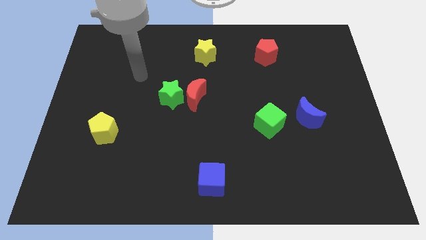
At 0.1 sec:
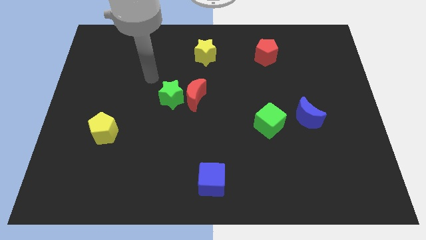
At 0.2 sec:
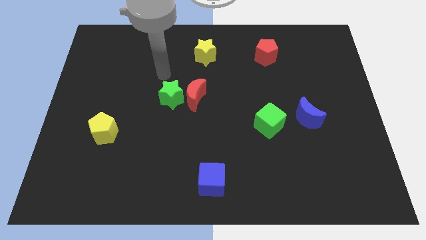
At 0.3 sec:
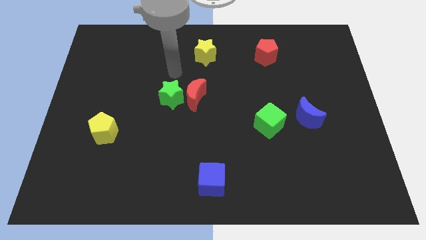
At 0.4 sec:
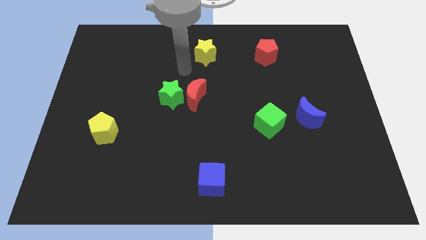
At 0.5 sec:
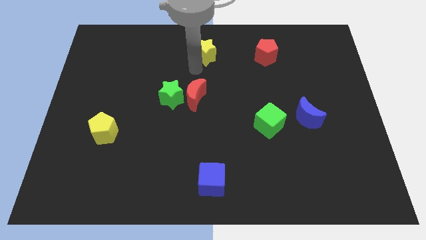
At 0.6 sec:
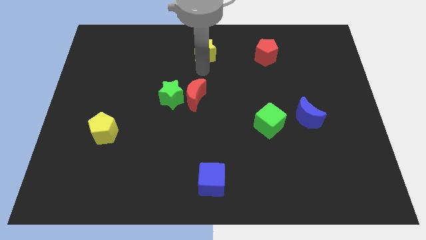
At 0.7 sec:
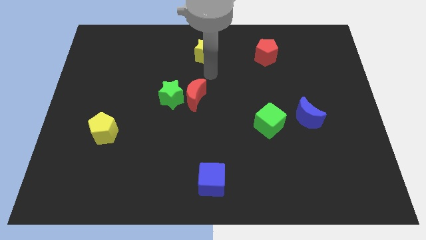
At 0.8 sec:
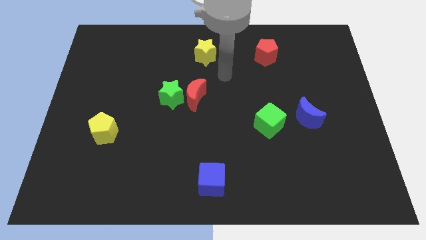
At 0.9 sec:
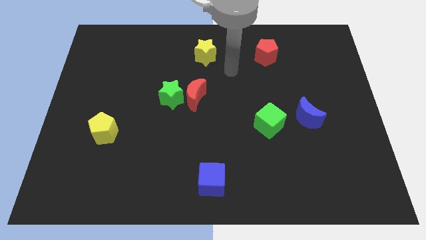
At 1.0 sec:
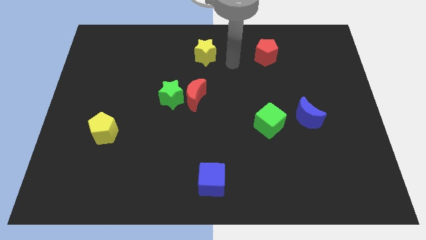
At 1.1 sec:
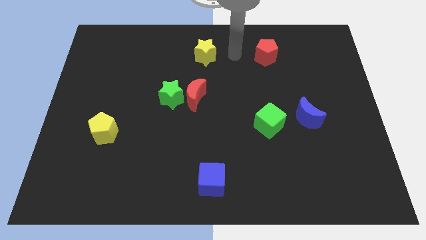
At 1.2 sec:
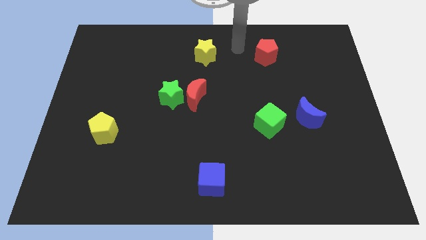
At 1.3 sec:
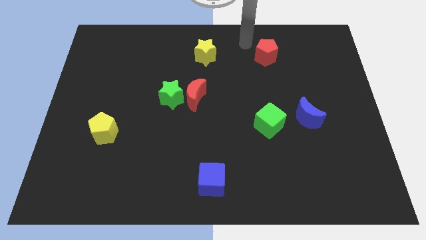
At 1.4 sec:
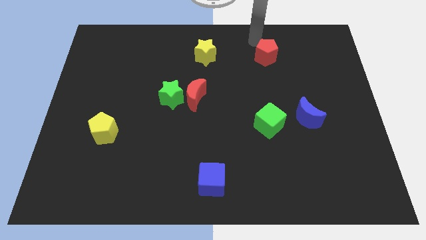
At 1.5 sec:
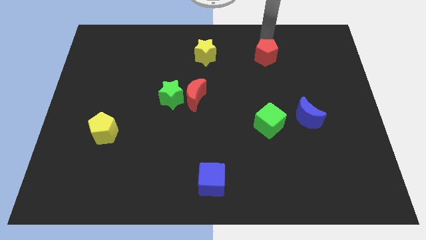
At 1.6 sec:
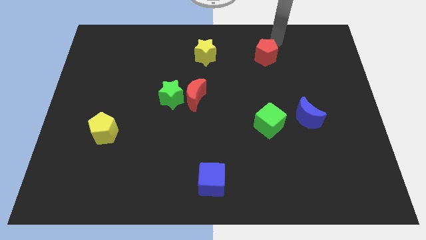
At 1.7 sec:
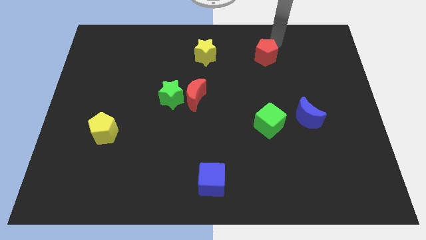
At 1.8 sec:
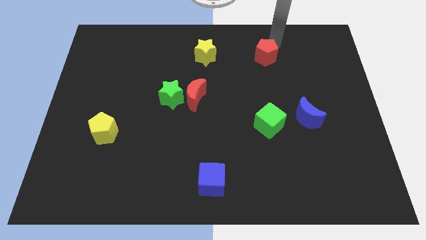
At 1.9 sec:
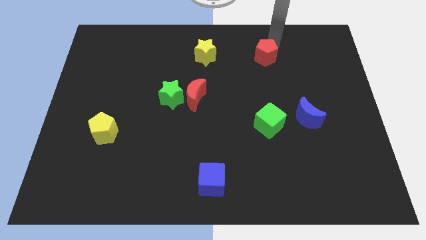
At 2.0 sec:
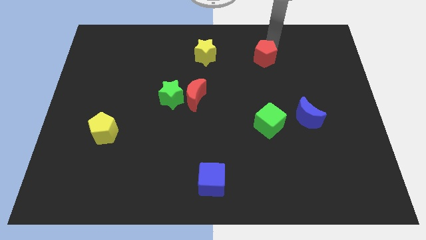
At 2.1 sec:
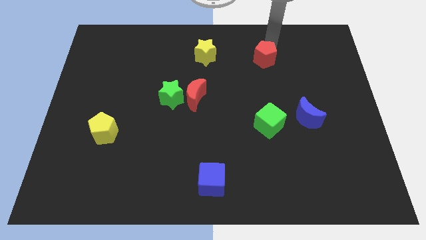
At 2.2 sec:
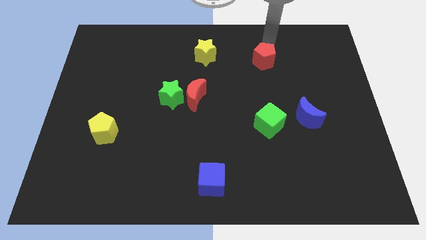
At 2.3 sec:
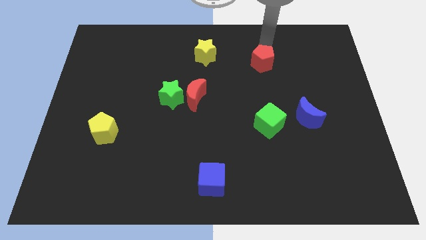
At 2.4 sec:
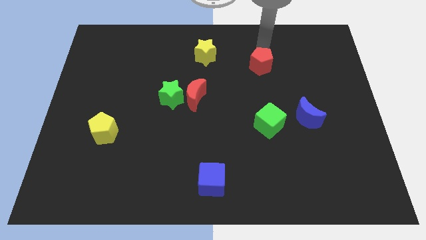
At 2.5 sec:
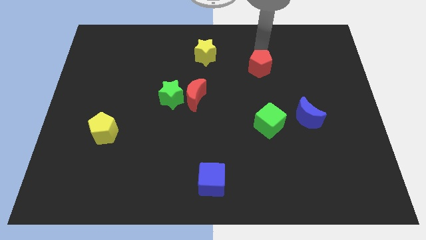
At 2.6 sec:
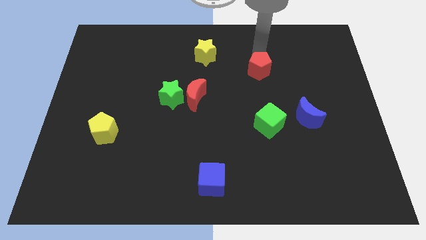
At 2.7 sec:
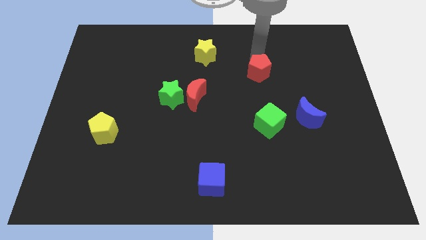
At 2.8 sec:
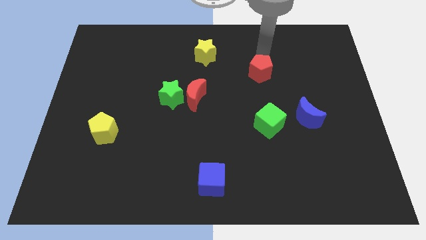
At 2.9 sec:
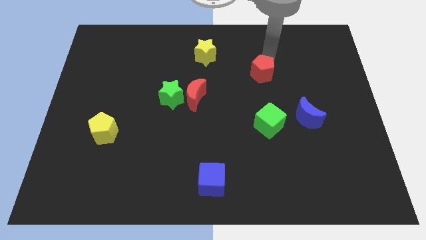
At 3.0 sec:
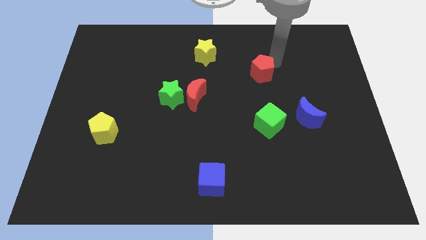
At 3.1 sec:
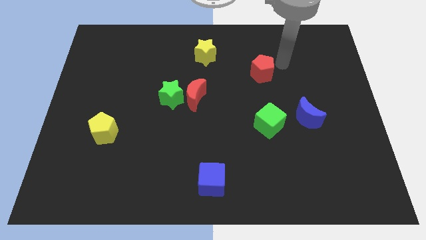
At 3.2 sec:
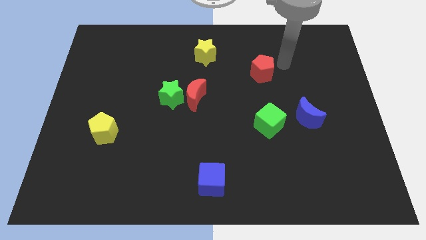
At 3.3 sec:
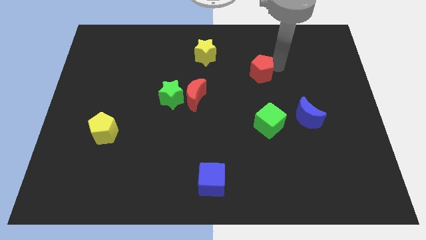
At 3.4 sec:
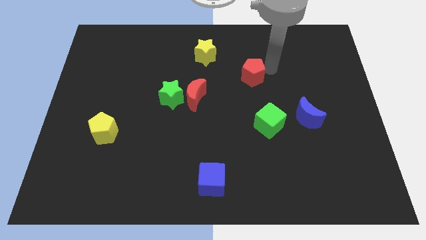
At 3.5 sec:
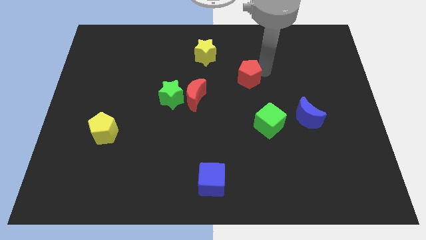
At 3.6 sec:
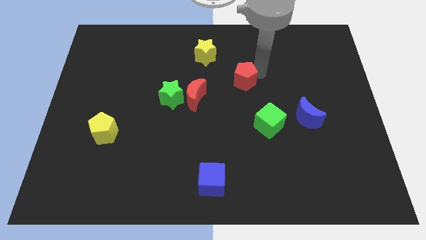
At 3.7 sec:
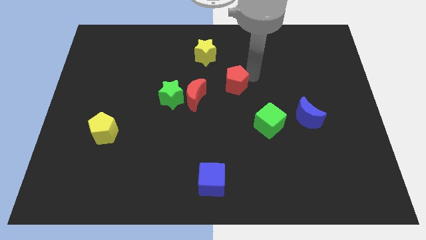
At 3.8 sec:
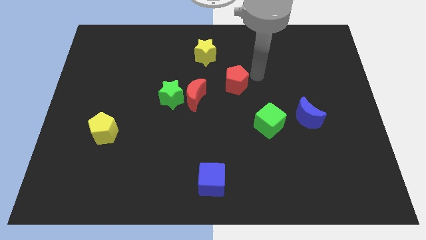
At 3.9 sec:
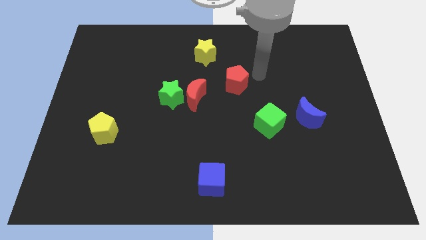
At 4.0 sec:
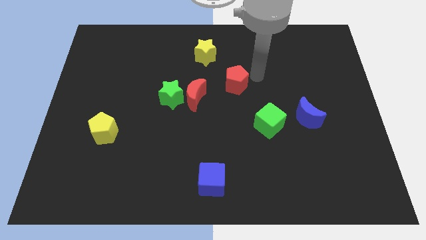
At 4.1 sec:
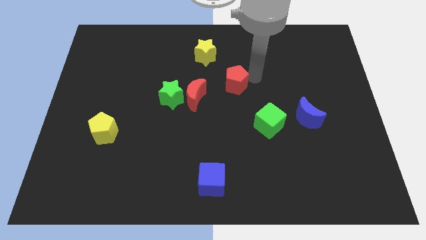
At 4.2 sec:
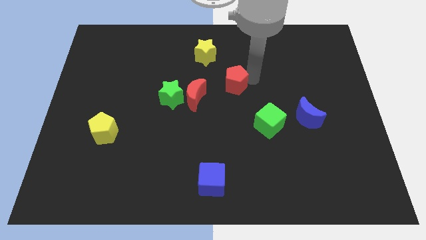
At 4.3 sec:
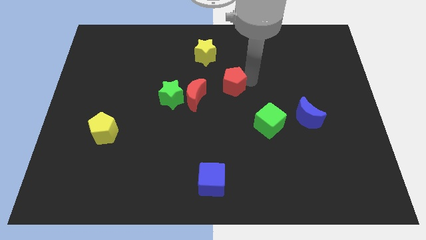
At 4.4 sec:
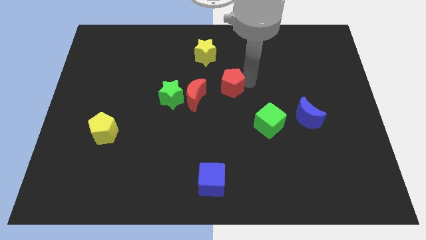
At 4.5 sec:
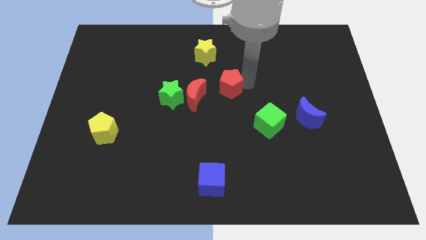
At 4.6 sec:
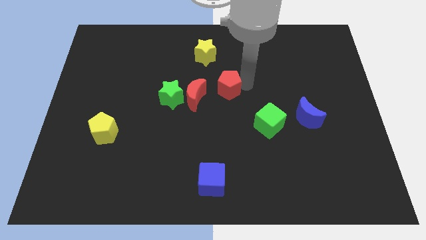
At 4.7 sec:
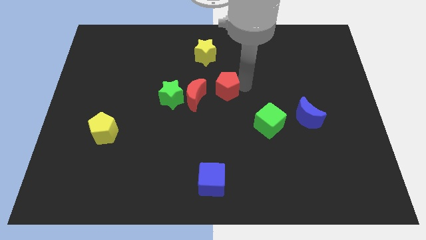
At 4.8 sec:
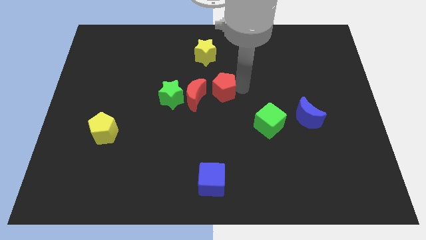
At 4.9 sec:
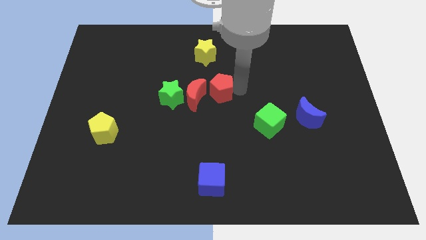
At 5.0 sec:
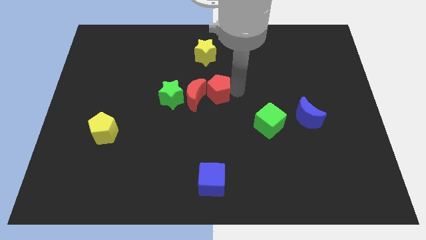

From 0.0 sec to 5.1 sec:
slide the red pentagon next to the red moon

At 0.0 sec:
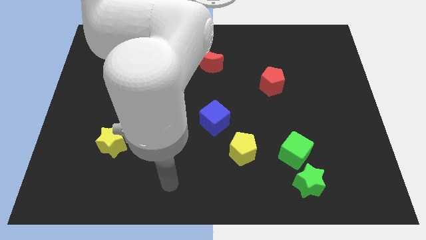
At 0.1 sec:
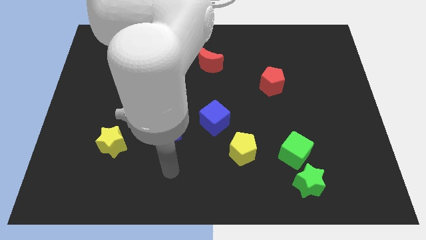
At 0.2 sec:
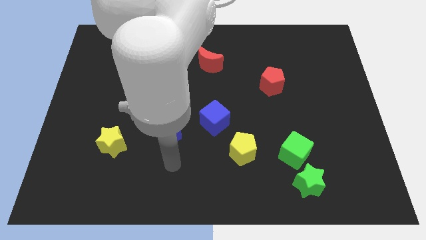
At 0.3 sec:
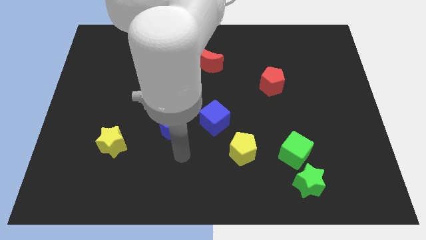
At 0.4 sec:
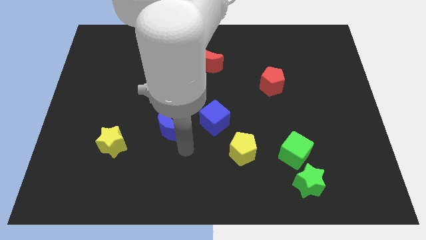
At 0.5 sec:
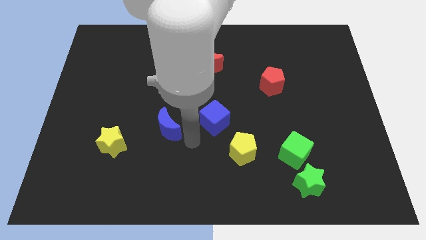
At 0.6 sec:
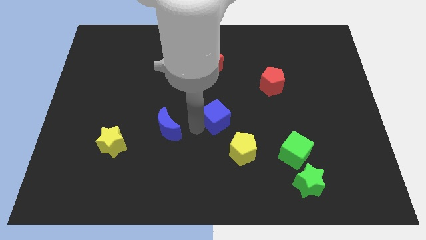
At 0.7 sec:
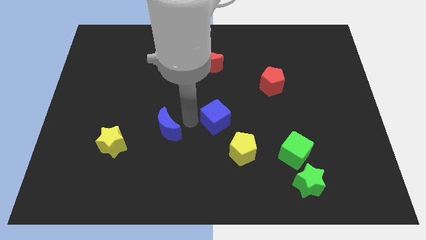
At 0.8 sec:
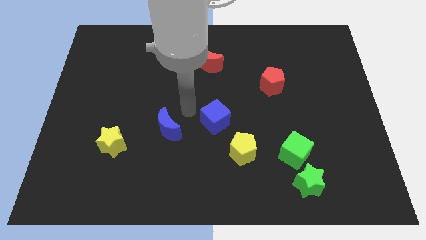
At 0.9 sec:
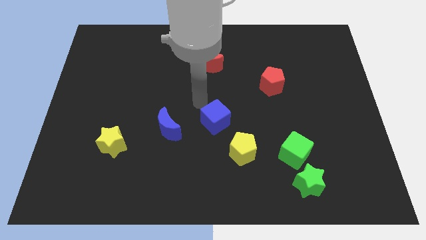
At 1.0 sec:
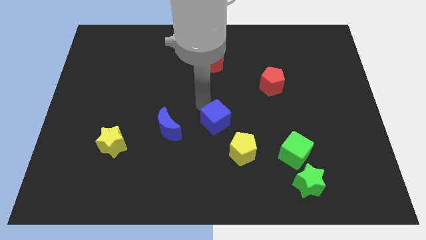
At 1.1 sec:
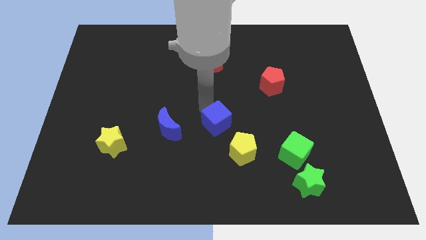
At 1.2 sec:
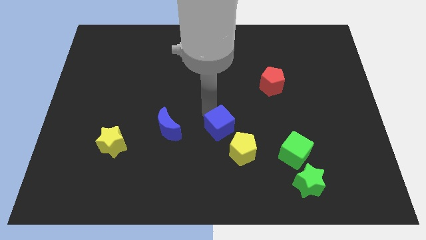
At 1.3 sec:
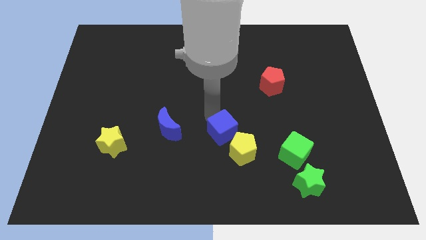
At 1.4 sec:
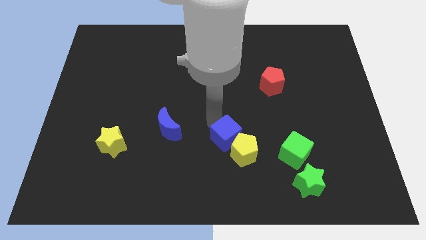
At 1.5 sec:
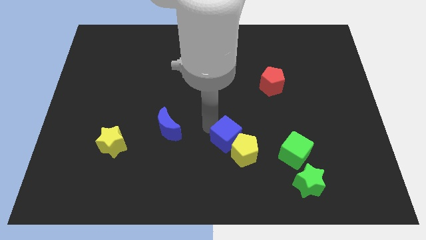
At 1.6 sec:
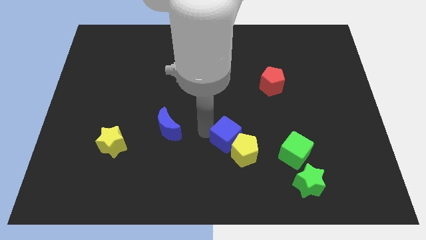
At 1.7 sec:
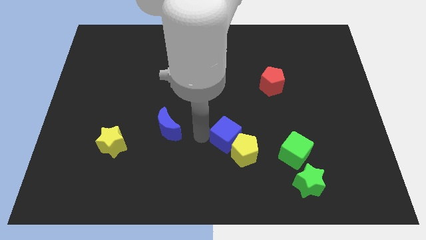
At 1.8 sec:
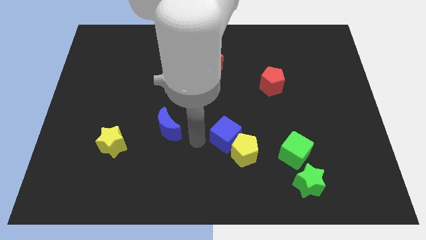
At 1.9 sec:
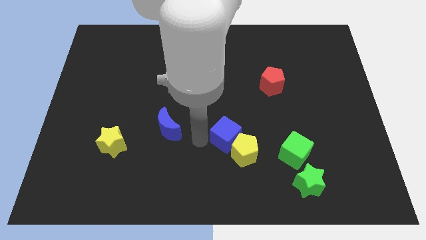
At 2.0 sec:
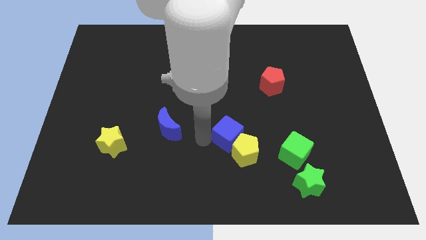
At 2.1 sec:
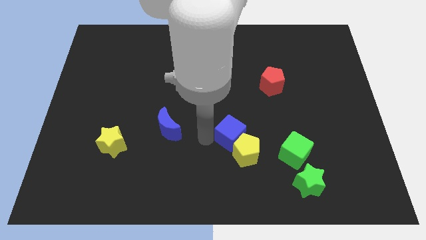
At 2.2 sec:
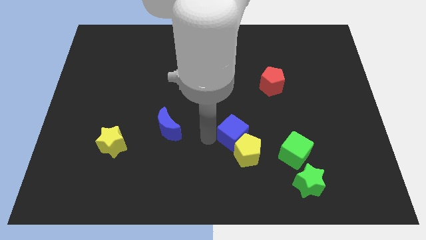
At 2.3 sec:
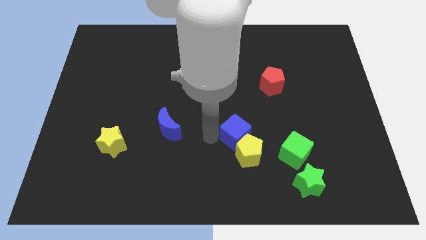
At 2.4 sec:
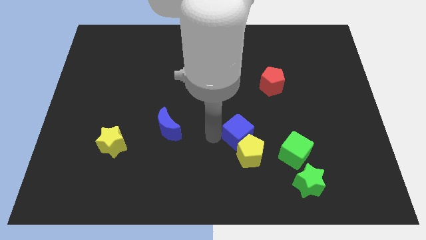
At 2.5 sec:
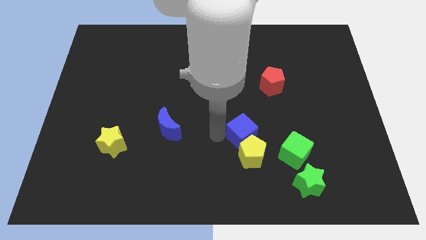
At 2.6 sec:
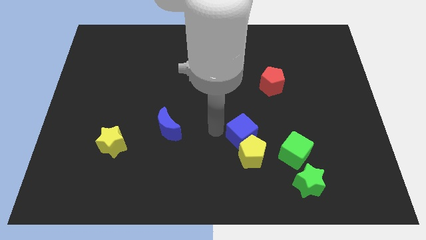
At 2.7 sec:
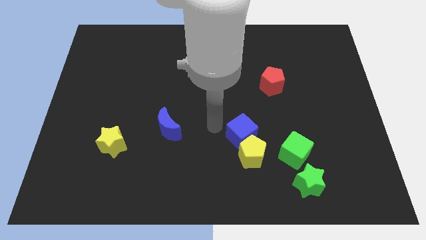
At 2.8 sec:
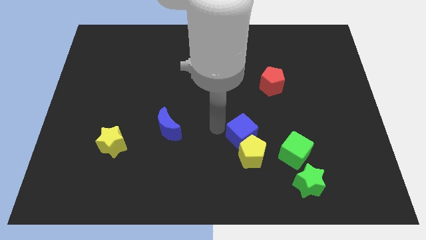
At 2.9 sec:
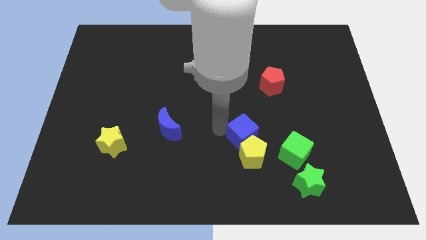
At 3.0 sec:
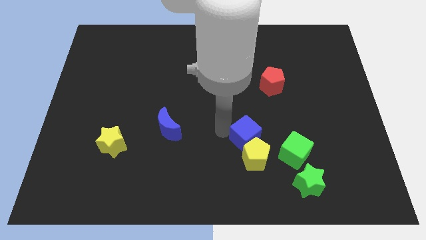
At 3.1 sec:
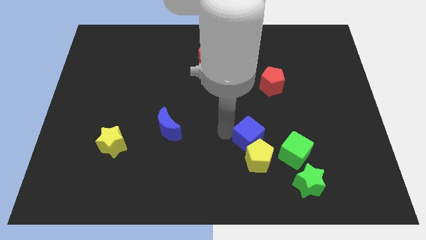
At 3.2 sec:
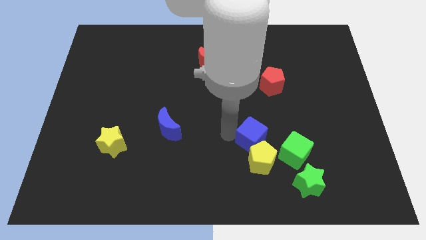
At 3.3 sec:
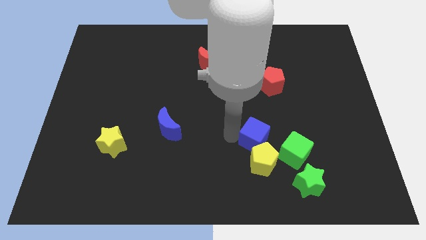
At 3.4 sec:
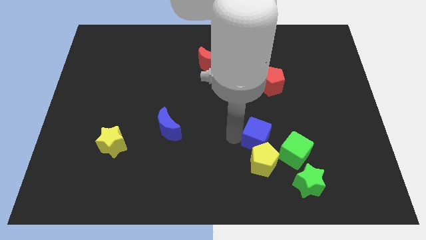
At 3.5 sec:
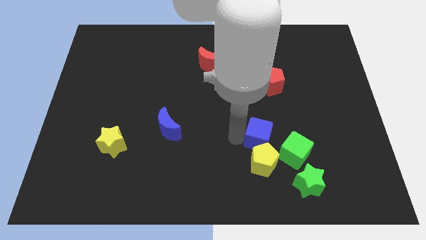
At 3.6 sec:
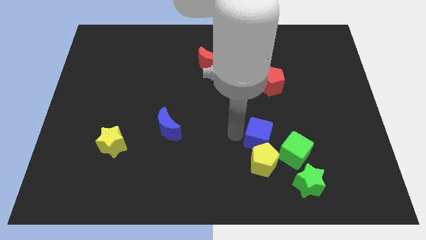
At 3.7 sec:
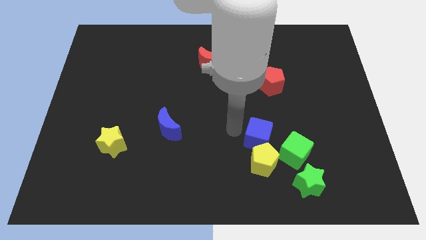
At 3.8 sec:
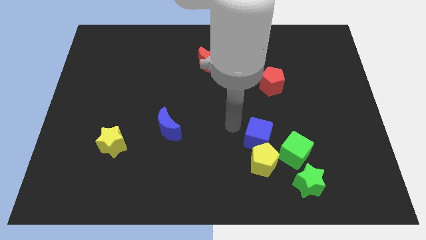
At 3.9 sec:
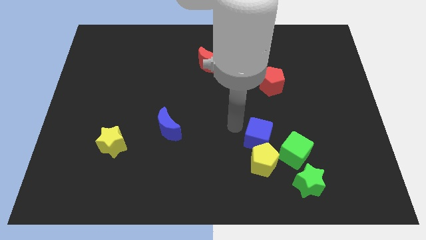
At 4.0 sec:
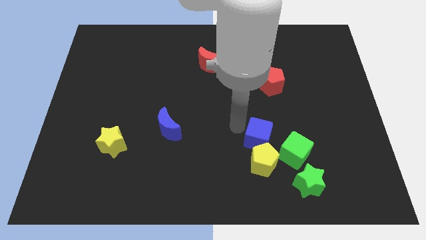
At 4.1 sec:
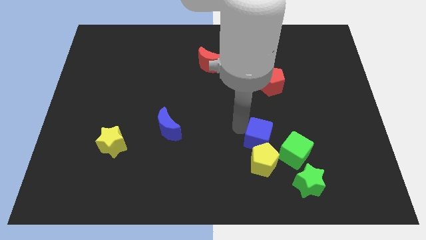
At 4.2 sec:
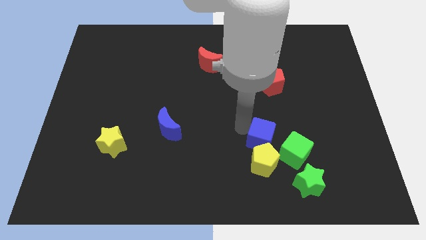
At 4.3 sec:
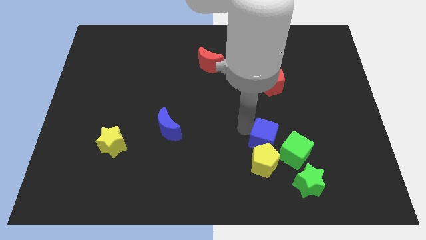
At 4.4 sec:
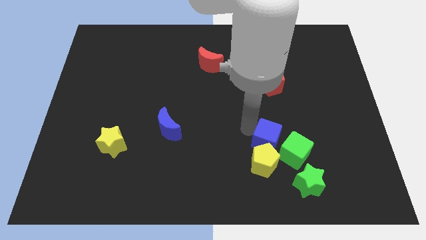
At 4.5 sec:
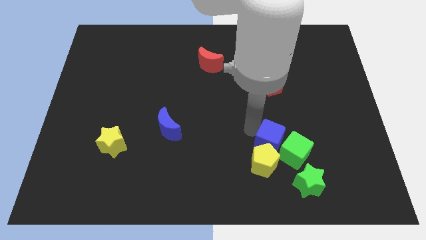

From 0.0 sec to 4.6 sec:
push the blue cube close to the green cube
